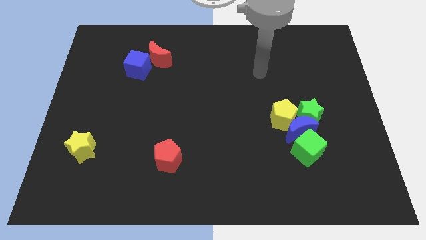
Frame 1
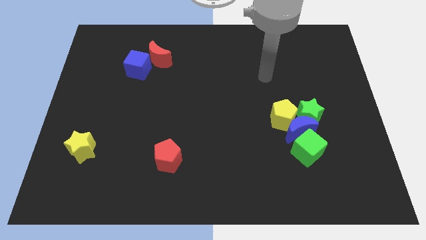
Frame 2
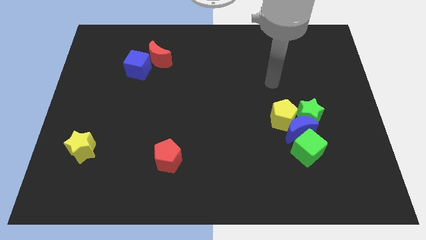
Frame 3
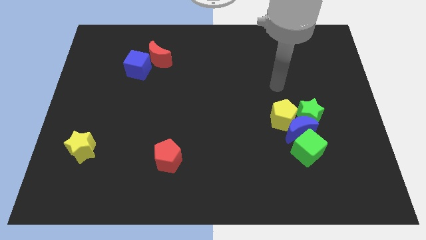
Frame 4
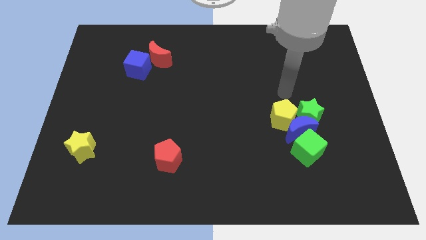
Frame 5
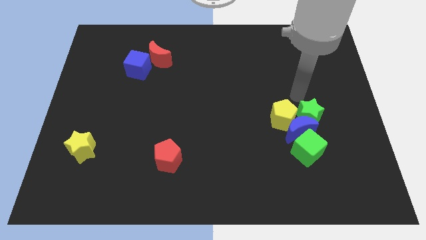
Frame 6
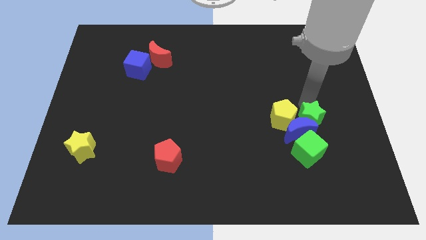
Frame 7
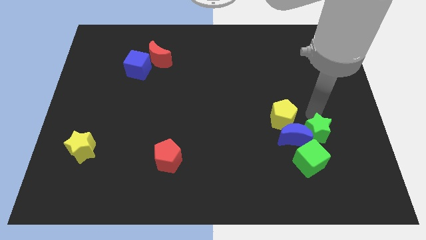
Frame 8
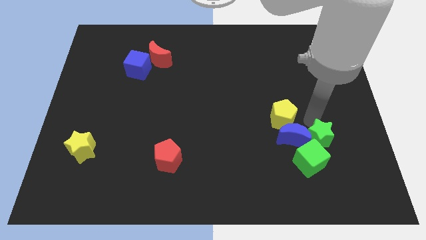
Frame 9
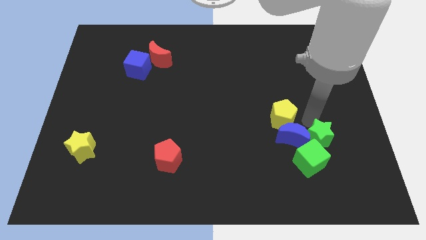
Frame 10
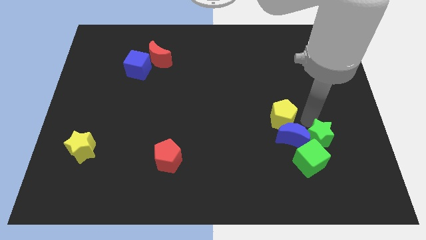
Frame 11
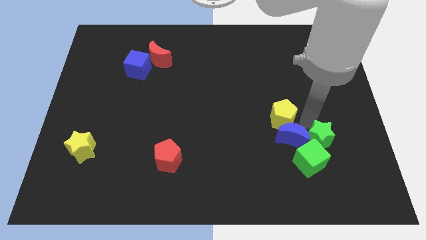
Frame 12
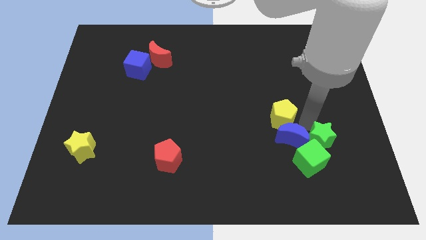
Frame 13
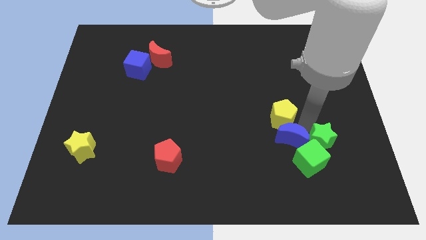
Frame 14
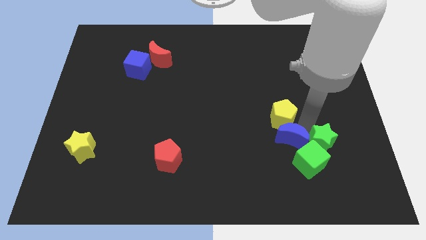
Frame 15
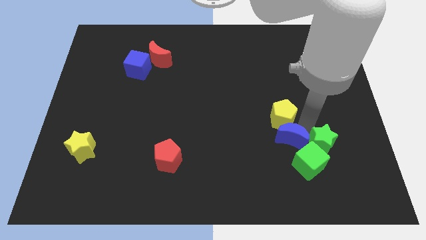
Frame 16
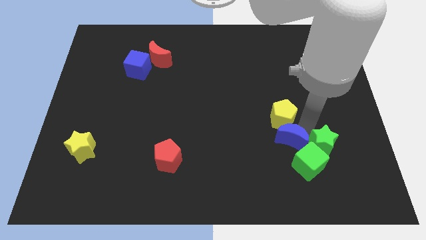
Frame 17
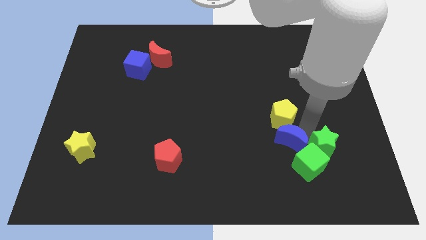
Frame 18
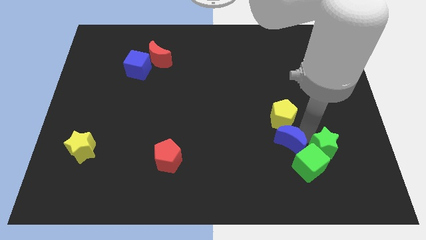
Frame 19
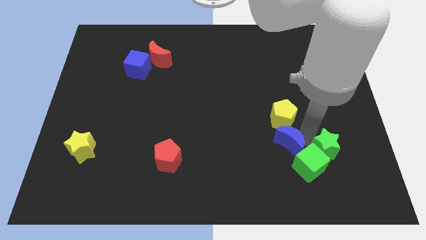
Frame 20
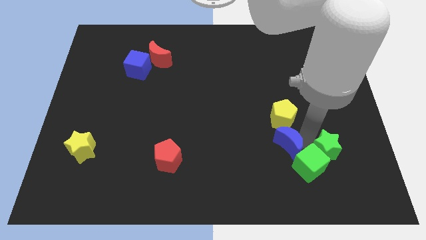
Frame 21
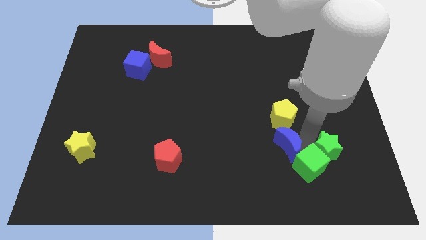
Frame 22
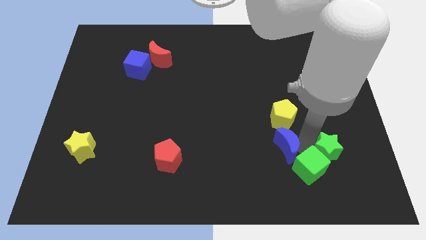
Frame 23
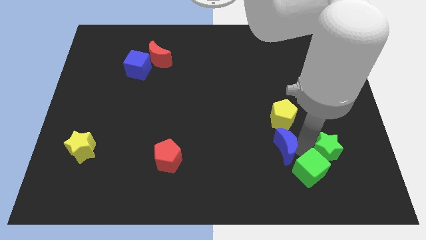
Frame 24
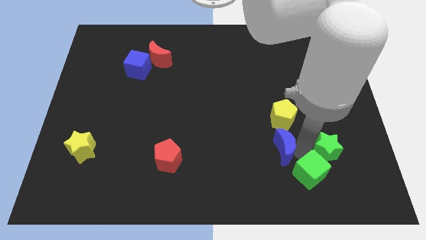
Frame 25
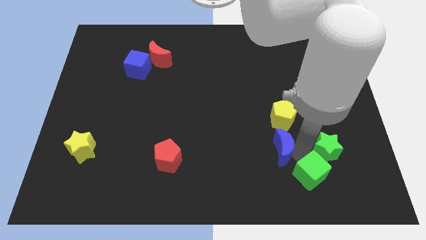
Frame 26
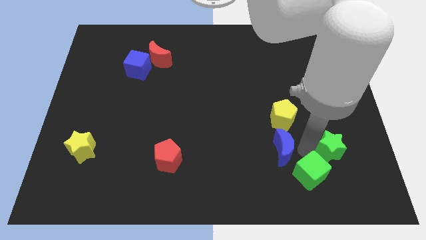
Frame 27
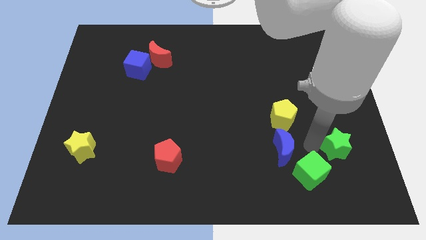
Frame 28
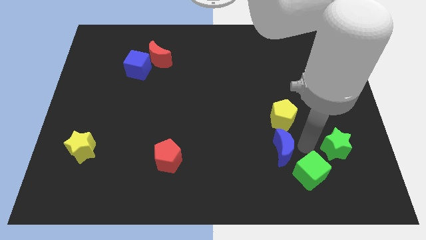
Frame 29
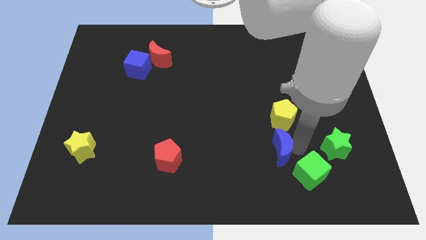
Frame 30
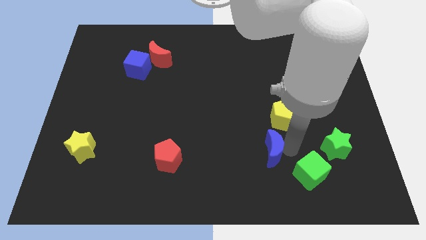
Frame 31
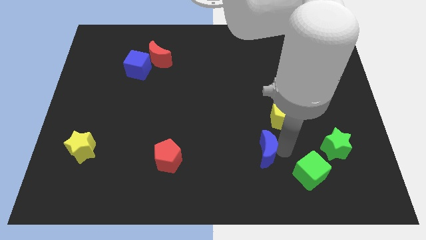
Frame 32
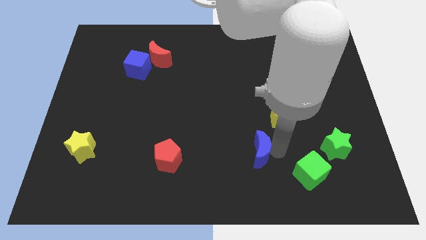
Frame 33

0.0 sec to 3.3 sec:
pull the blue moon apart from the yellow pentagon, green star, and green cube

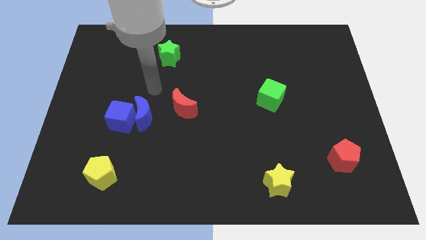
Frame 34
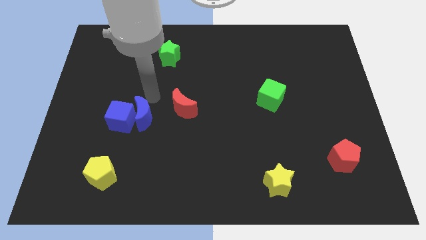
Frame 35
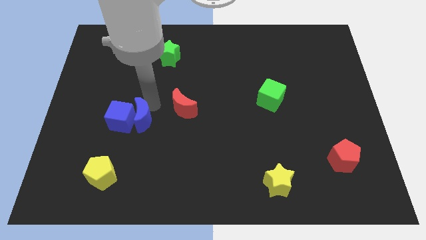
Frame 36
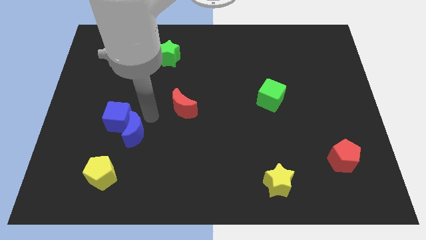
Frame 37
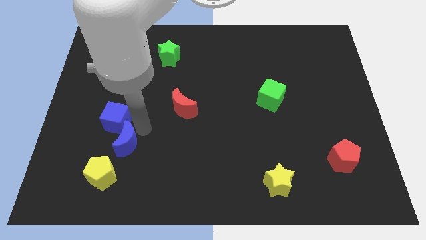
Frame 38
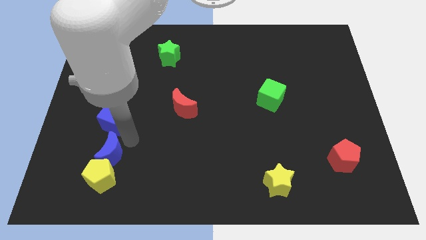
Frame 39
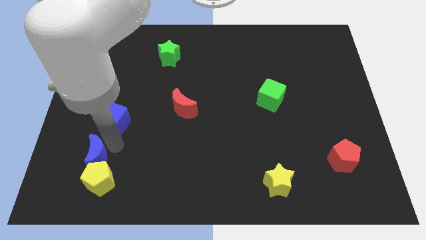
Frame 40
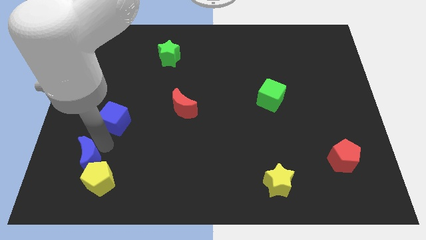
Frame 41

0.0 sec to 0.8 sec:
separate the blue cube from the blue moon

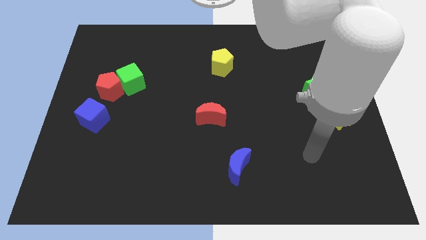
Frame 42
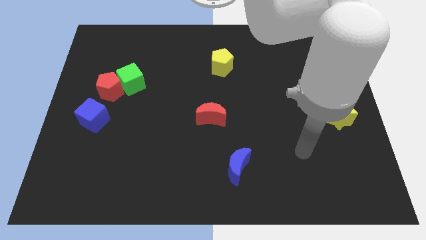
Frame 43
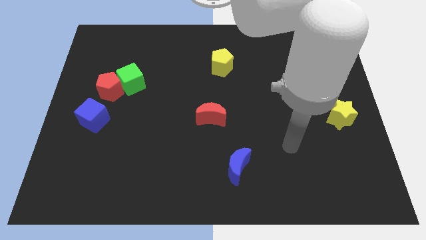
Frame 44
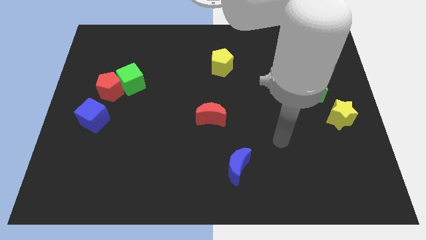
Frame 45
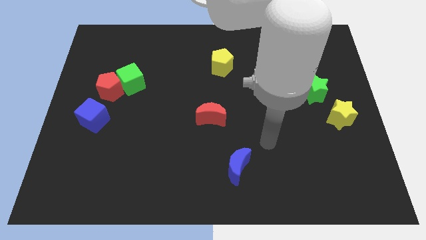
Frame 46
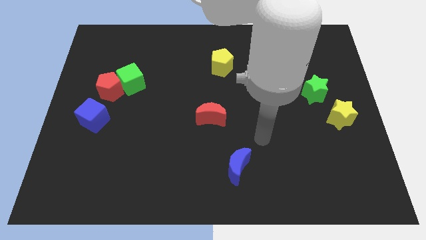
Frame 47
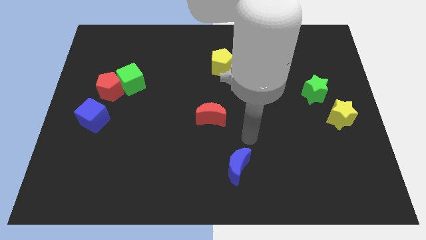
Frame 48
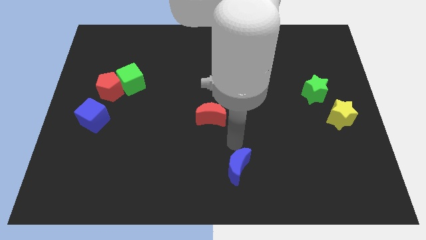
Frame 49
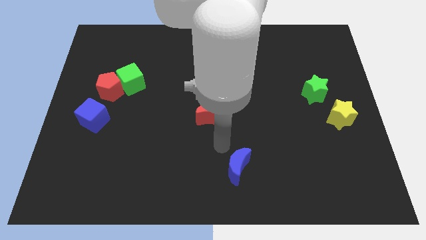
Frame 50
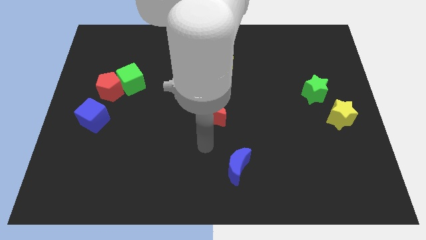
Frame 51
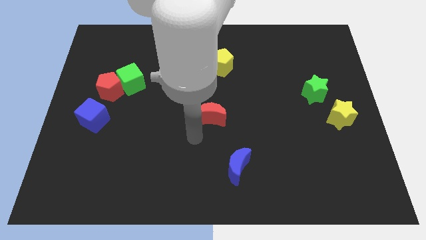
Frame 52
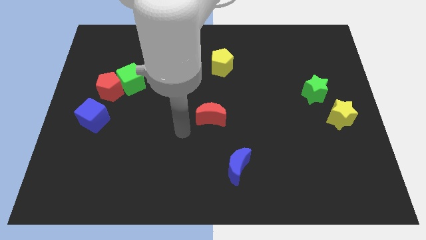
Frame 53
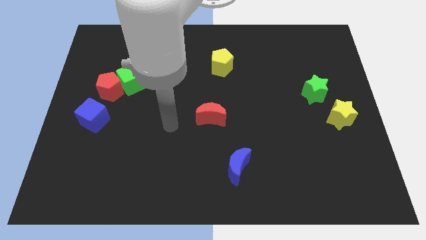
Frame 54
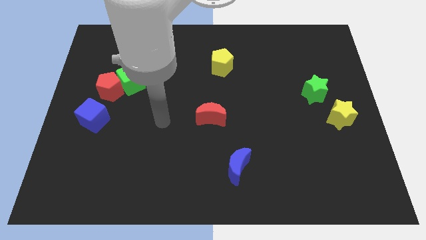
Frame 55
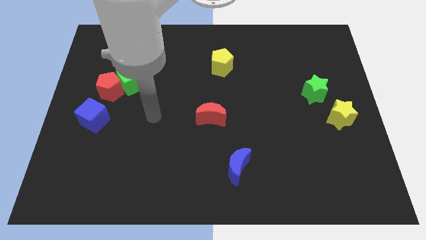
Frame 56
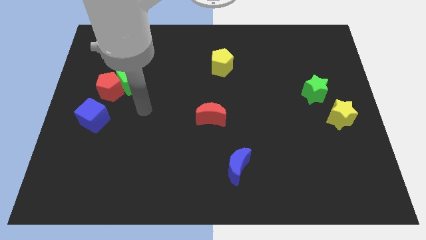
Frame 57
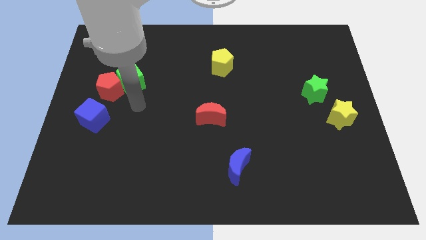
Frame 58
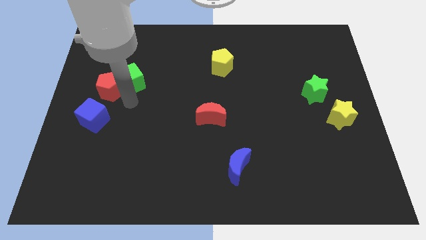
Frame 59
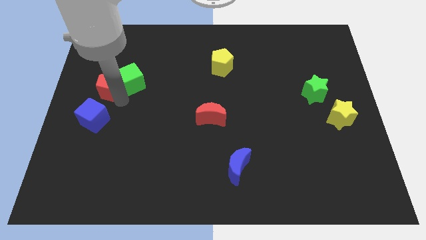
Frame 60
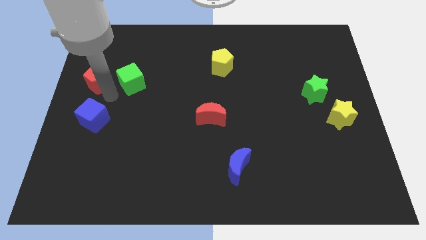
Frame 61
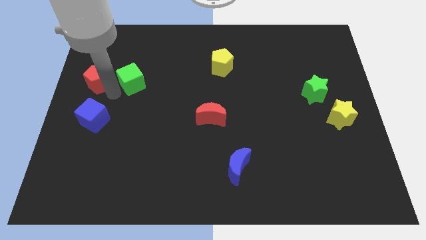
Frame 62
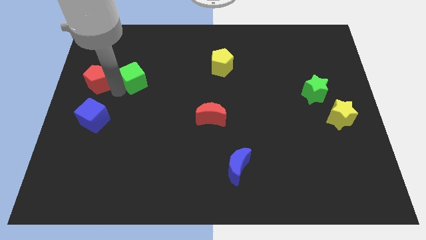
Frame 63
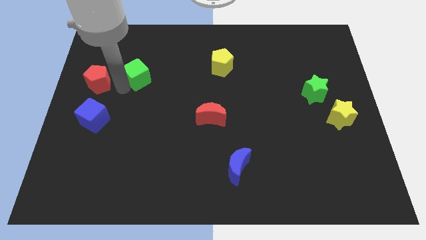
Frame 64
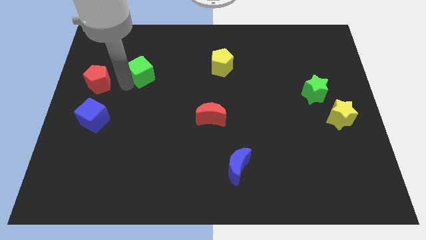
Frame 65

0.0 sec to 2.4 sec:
pull the green cube apart from the red pentagon

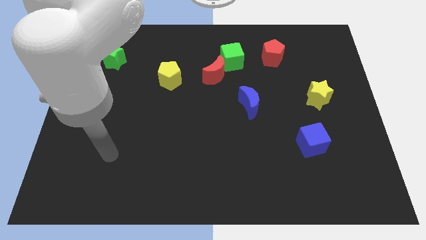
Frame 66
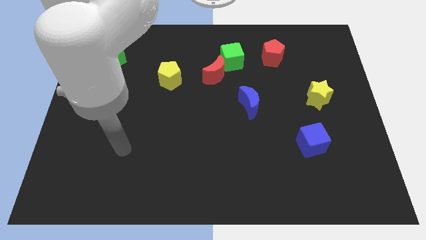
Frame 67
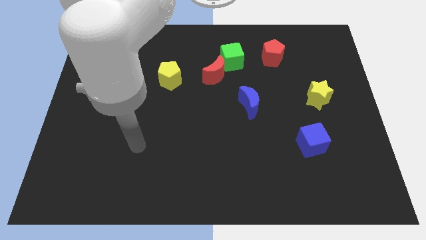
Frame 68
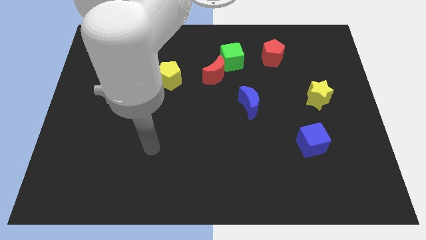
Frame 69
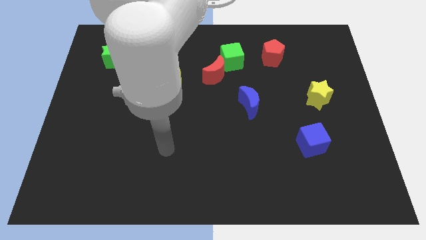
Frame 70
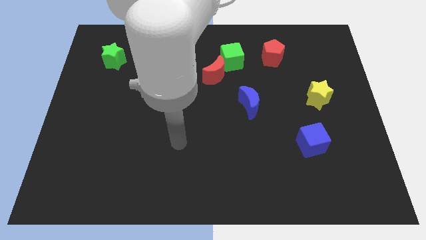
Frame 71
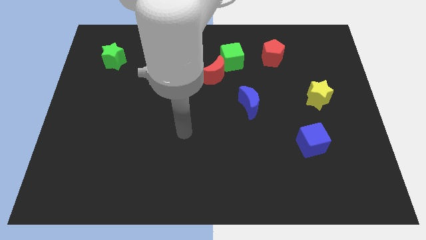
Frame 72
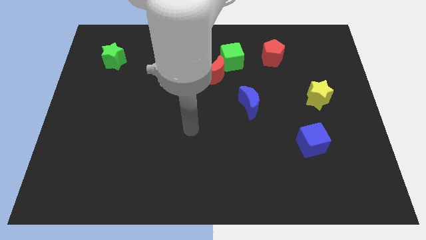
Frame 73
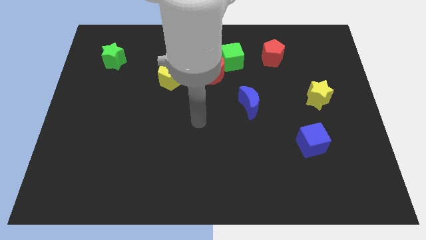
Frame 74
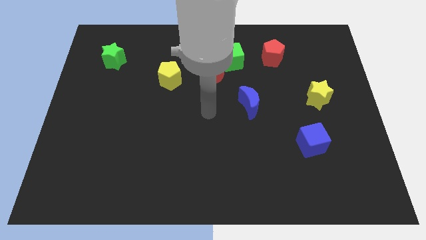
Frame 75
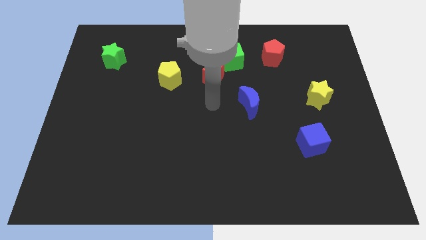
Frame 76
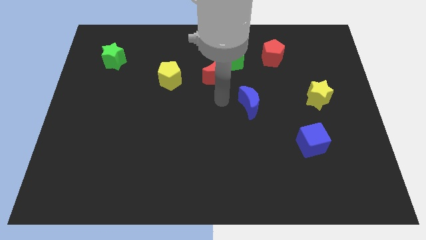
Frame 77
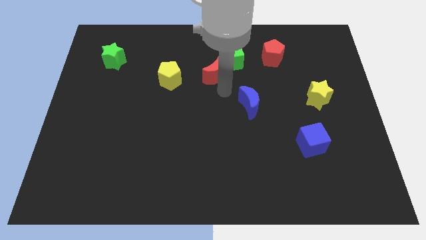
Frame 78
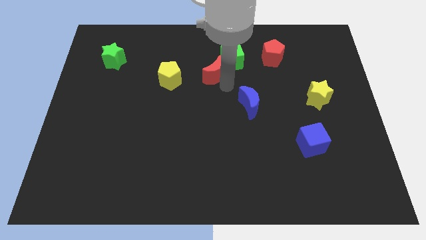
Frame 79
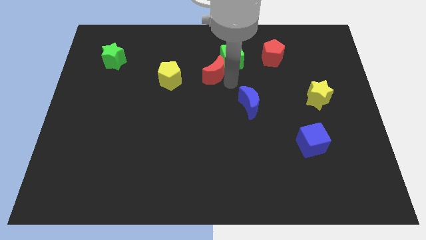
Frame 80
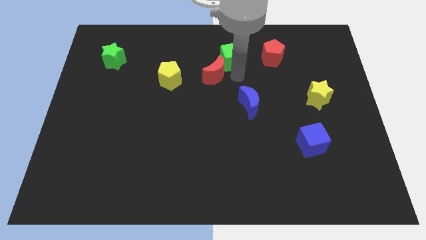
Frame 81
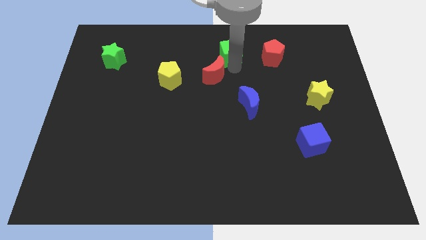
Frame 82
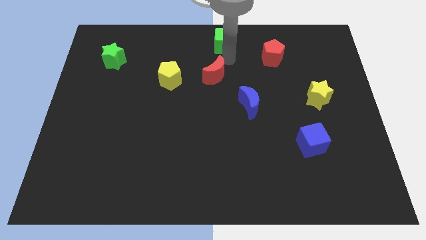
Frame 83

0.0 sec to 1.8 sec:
pull the red moon apart from the green cube

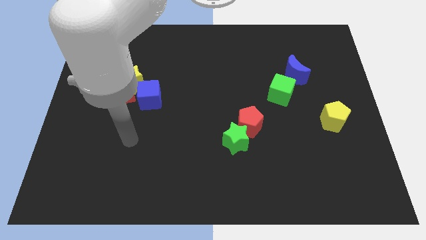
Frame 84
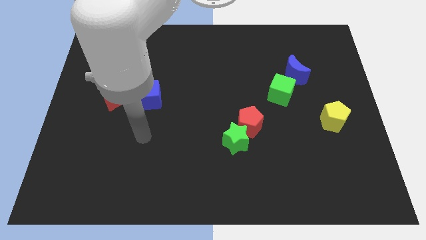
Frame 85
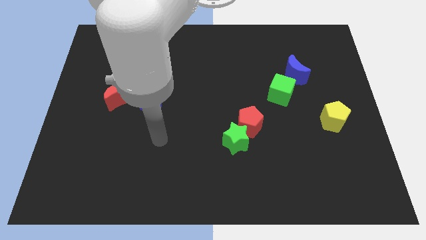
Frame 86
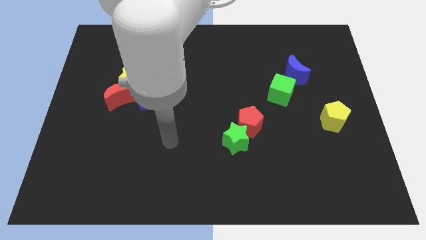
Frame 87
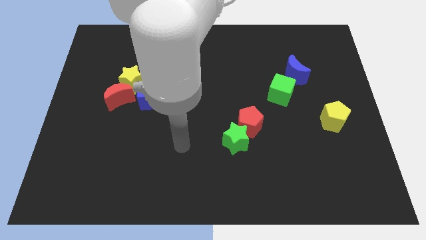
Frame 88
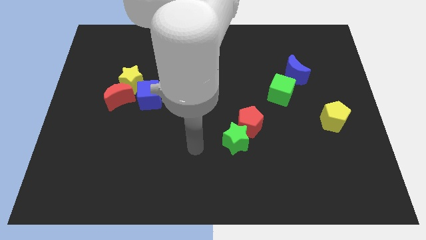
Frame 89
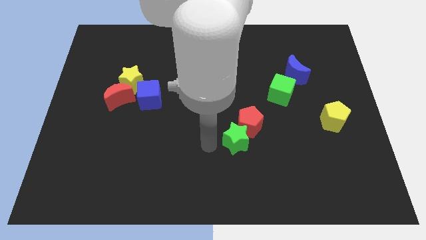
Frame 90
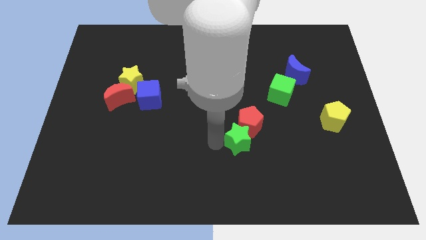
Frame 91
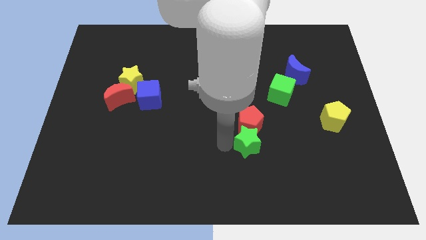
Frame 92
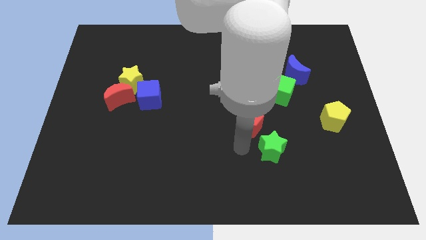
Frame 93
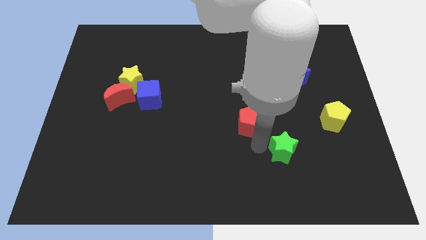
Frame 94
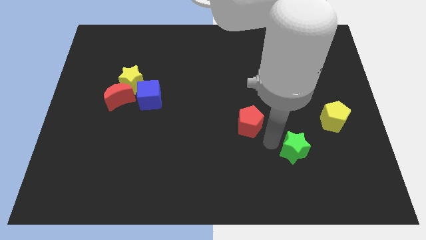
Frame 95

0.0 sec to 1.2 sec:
move the red pentagon away from the green star
